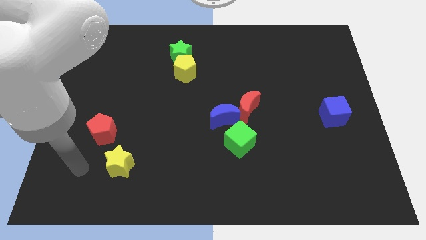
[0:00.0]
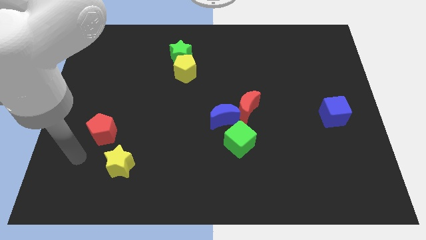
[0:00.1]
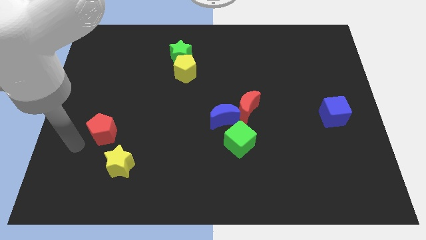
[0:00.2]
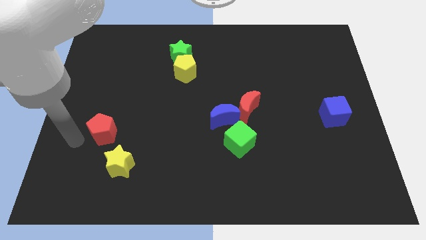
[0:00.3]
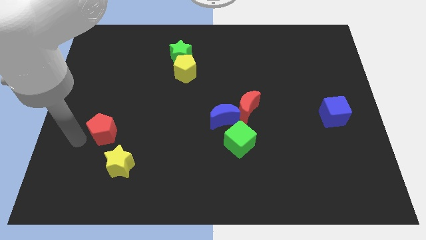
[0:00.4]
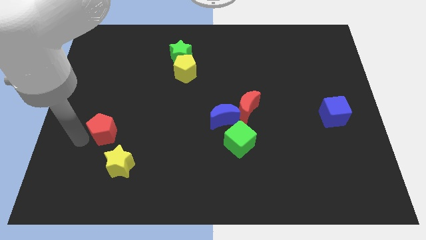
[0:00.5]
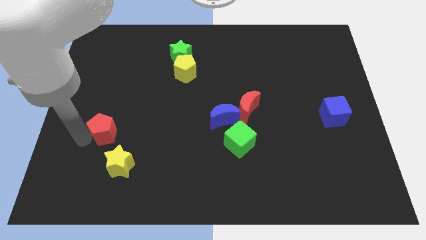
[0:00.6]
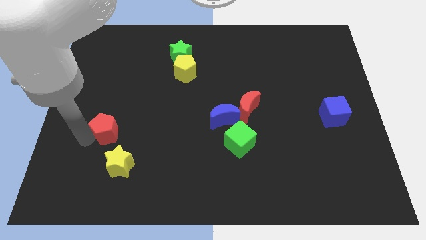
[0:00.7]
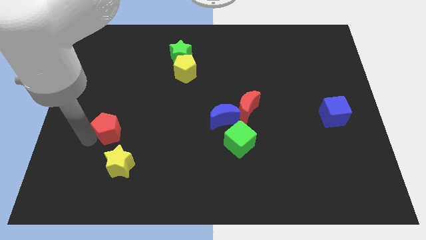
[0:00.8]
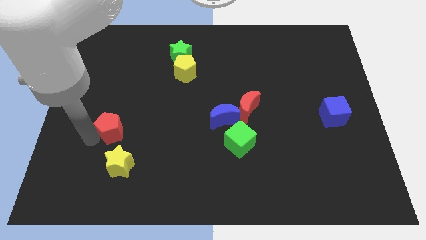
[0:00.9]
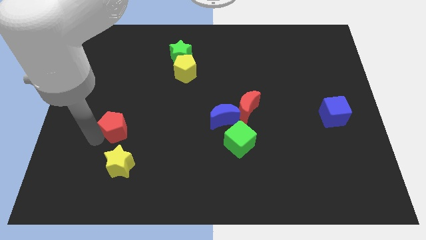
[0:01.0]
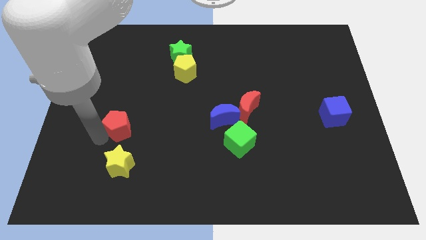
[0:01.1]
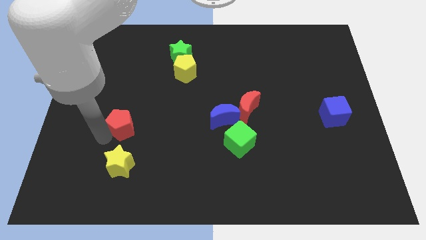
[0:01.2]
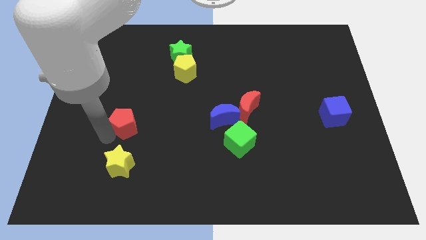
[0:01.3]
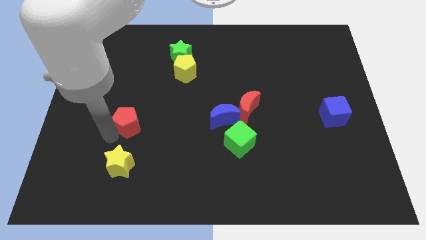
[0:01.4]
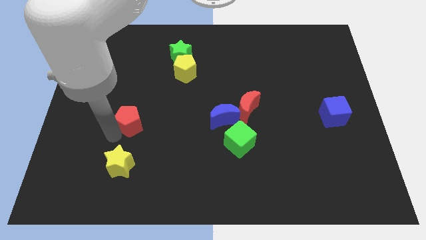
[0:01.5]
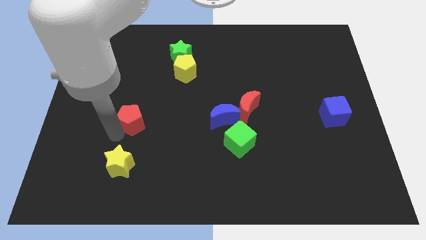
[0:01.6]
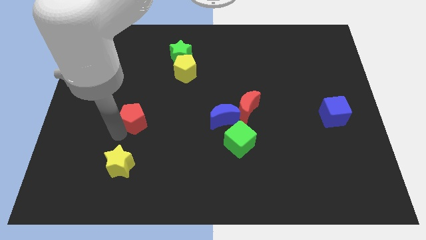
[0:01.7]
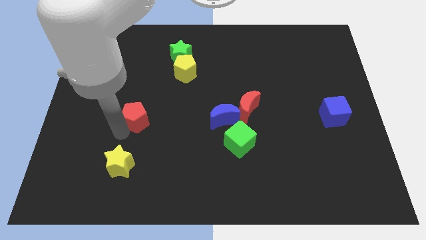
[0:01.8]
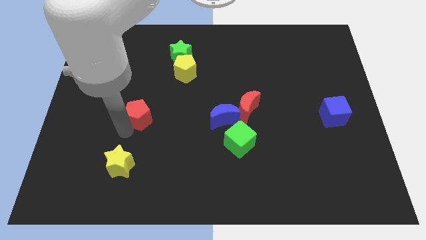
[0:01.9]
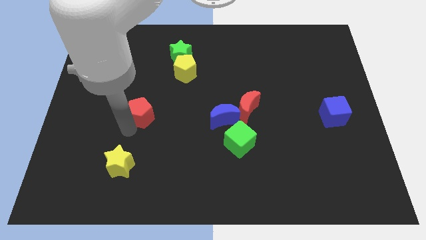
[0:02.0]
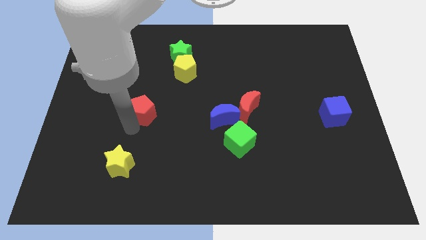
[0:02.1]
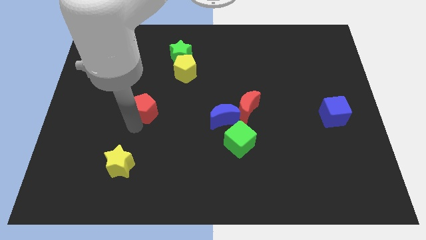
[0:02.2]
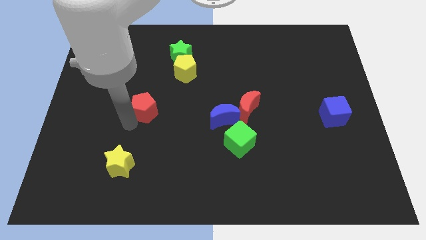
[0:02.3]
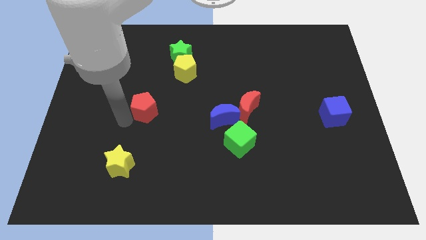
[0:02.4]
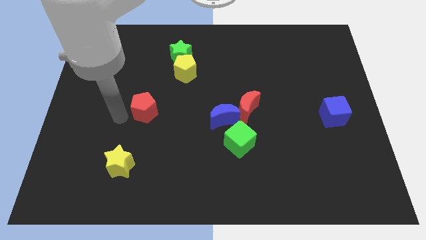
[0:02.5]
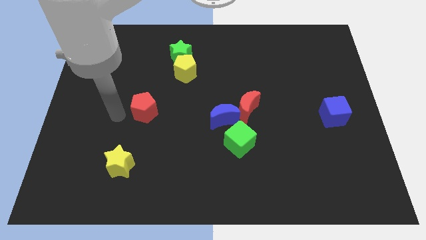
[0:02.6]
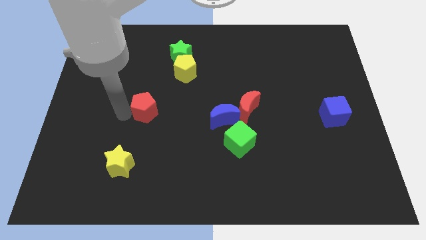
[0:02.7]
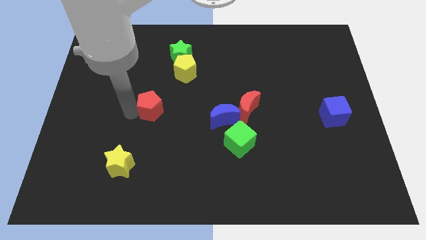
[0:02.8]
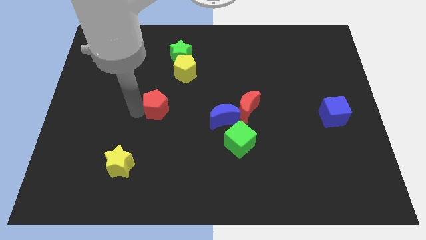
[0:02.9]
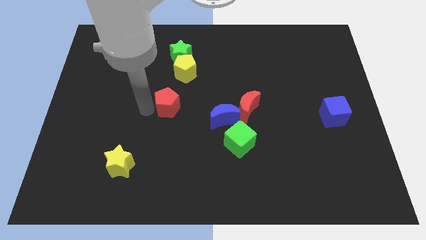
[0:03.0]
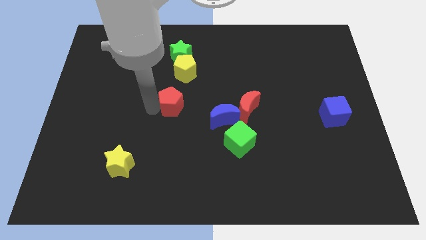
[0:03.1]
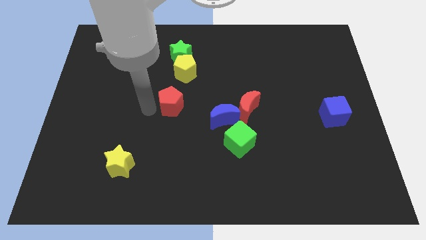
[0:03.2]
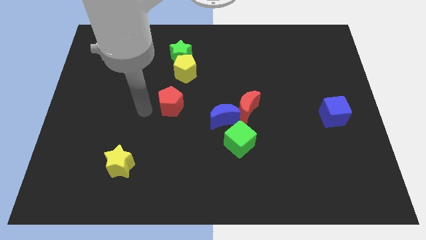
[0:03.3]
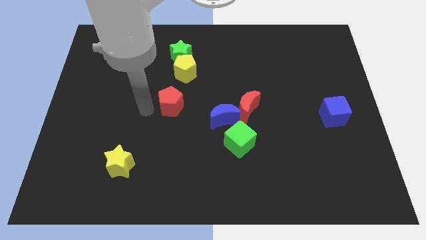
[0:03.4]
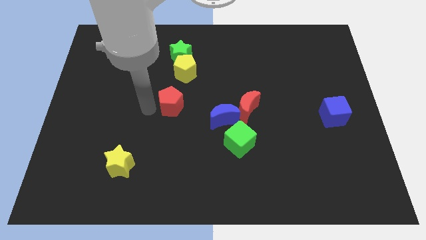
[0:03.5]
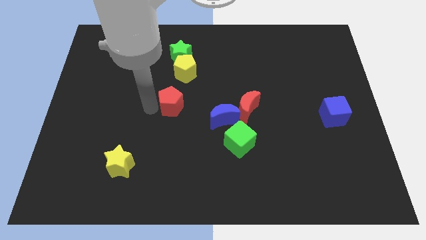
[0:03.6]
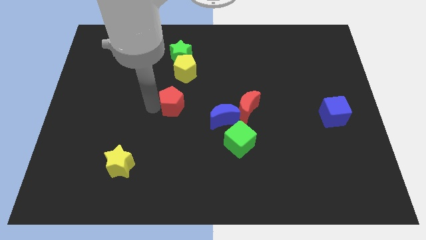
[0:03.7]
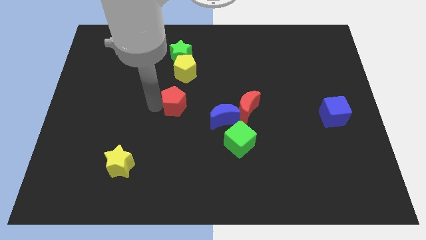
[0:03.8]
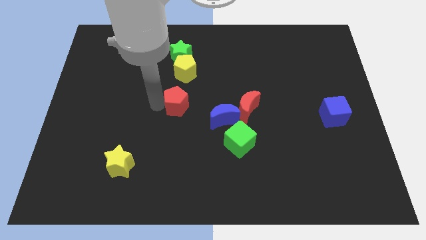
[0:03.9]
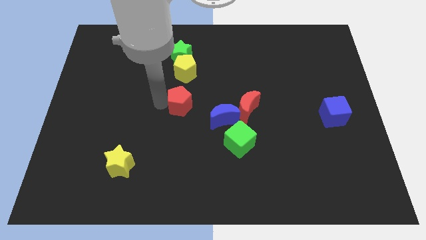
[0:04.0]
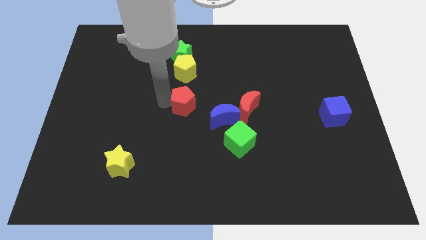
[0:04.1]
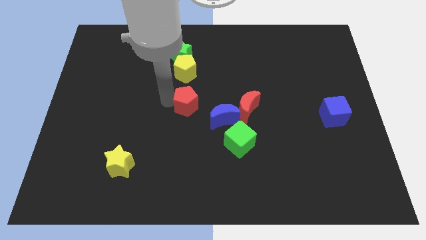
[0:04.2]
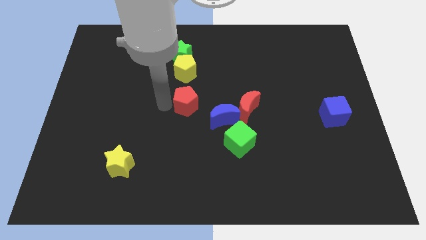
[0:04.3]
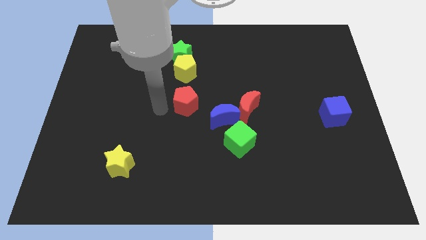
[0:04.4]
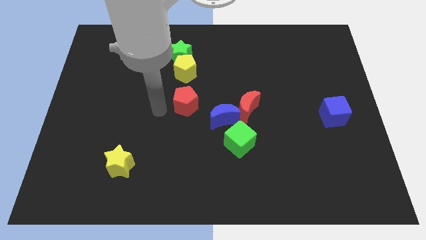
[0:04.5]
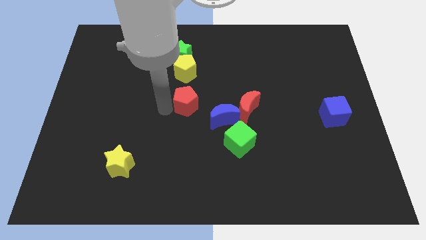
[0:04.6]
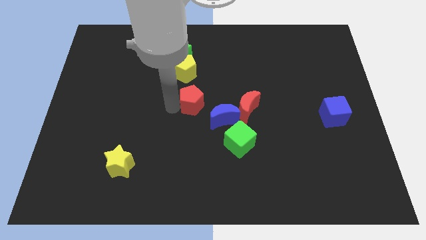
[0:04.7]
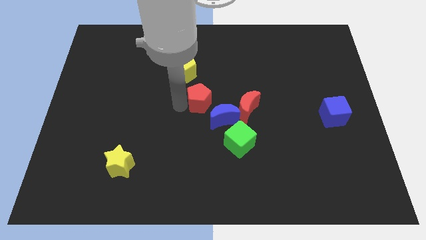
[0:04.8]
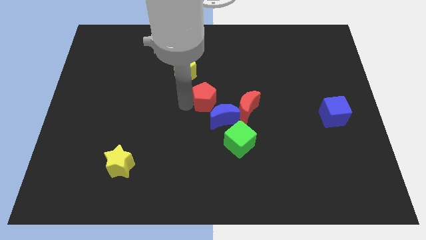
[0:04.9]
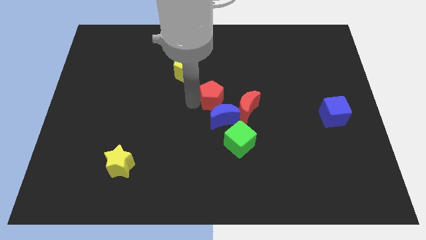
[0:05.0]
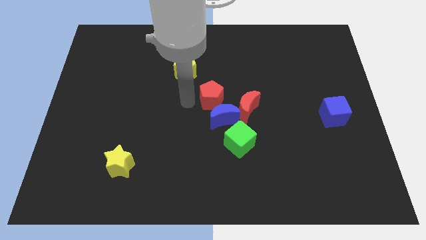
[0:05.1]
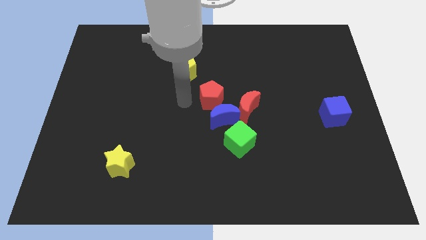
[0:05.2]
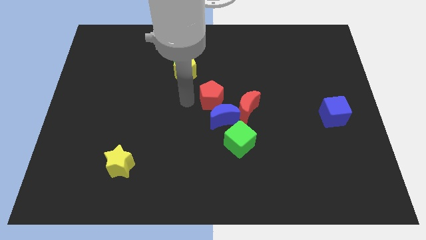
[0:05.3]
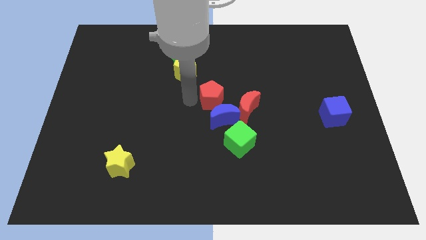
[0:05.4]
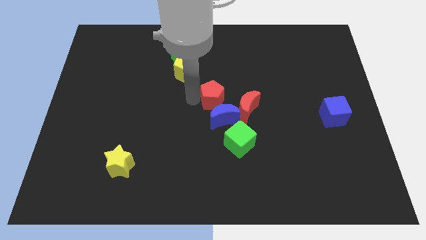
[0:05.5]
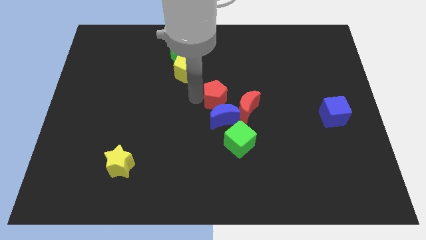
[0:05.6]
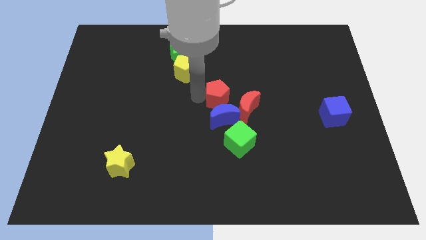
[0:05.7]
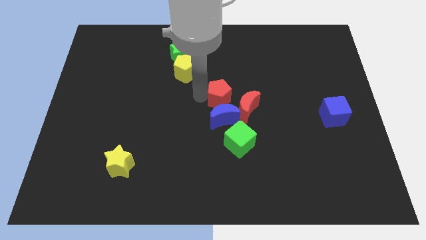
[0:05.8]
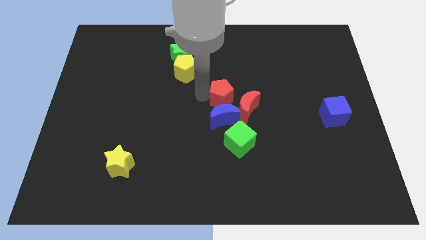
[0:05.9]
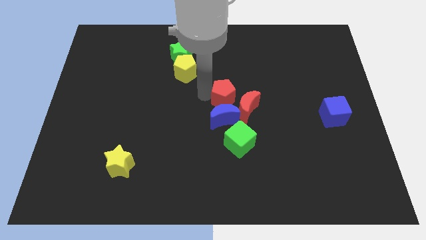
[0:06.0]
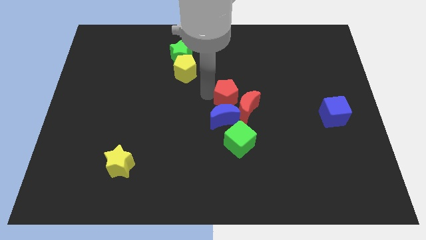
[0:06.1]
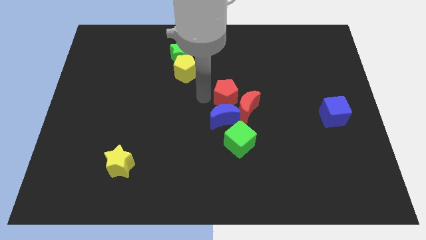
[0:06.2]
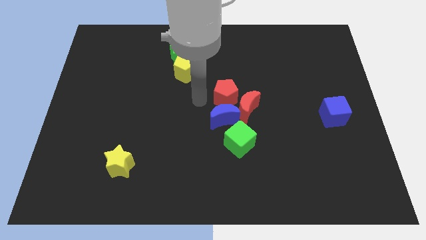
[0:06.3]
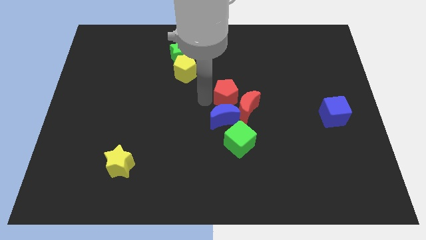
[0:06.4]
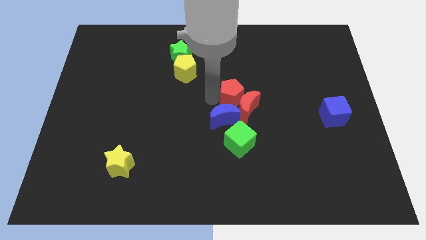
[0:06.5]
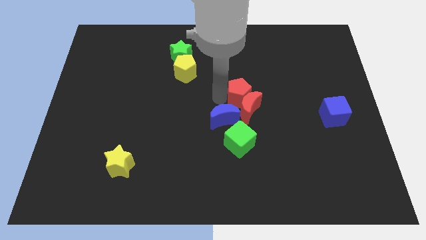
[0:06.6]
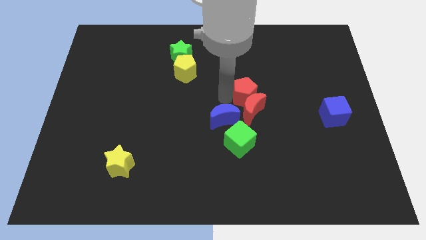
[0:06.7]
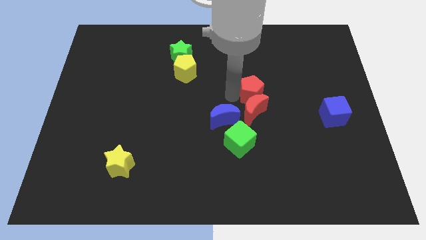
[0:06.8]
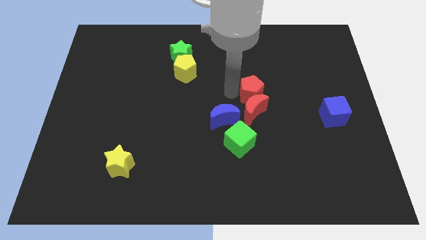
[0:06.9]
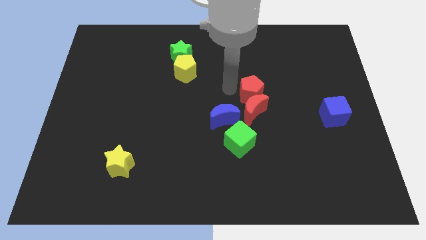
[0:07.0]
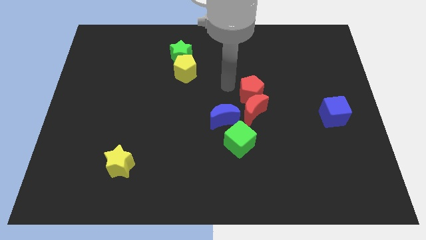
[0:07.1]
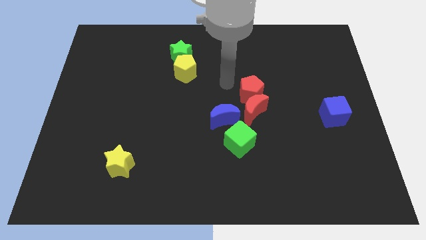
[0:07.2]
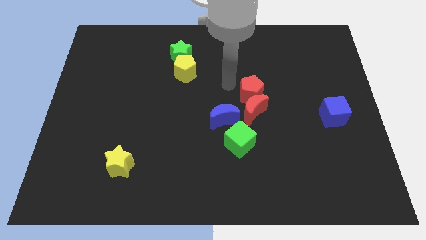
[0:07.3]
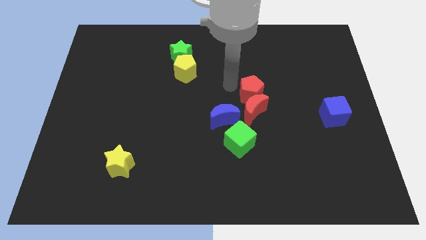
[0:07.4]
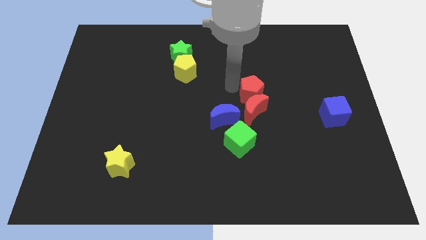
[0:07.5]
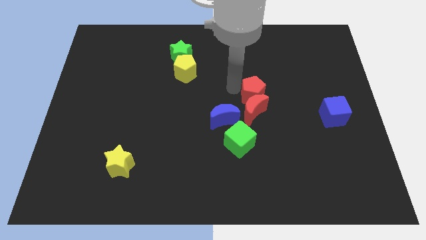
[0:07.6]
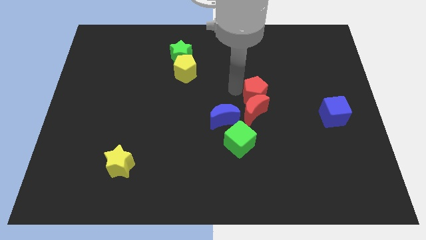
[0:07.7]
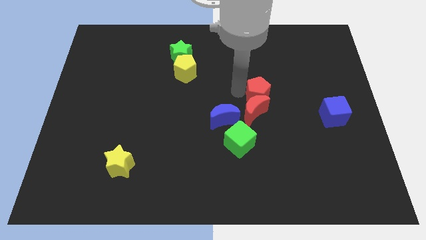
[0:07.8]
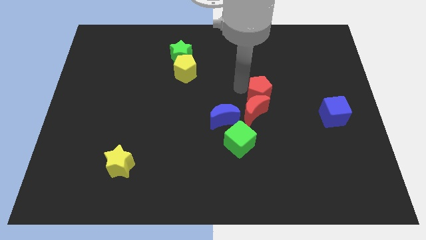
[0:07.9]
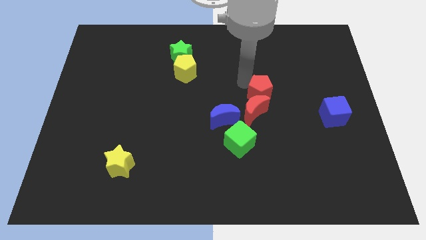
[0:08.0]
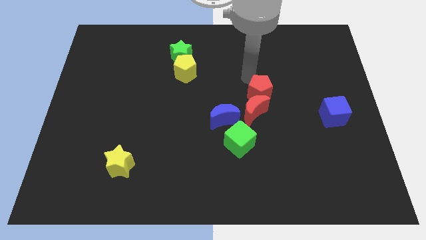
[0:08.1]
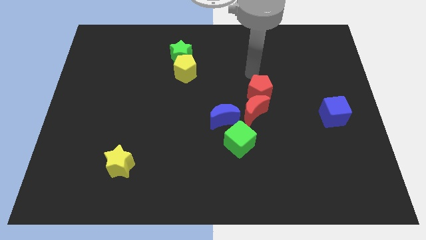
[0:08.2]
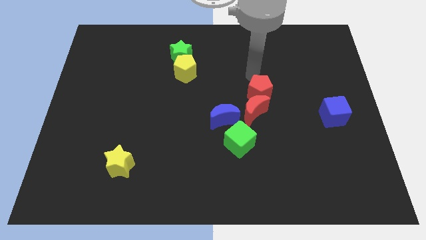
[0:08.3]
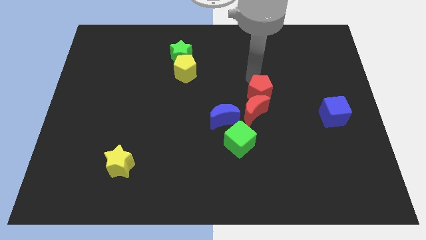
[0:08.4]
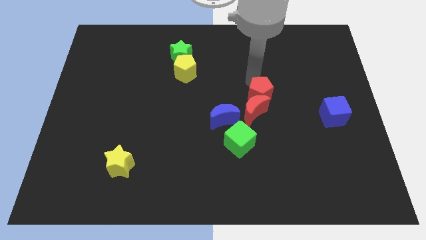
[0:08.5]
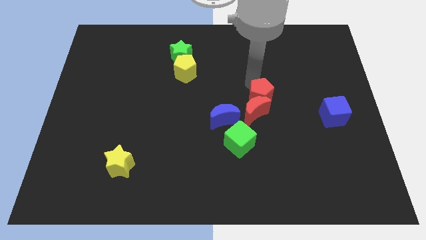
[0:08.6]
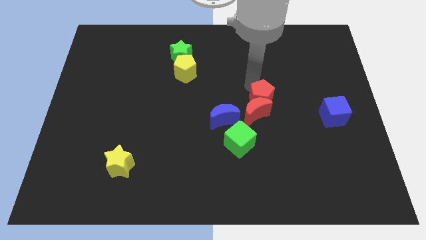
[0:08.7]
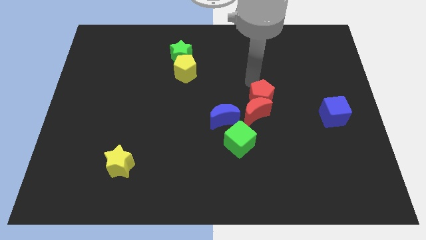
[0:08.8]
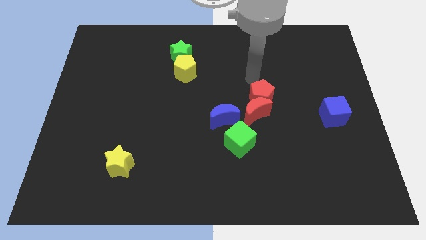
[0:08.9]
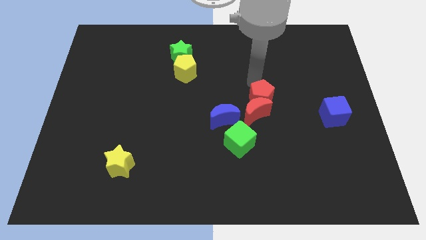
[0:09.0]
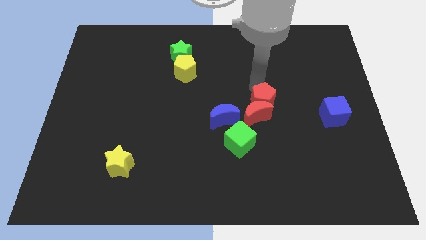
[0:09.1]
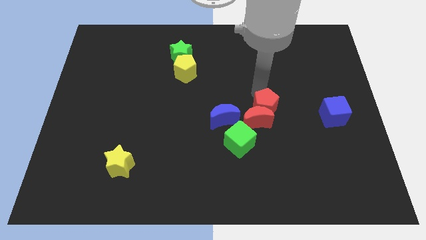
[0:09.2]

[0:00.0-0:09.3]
slide the red pentagon to the right of the blue moon
